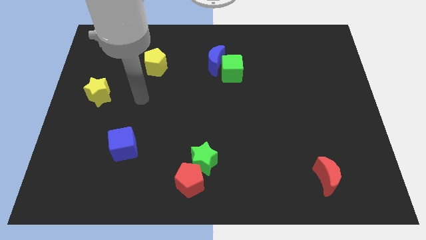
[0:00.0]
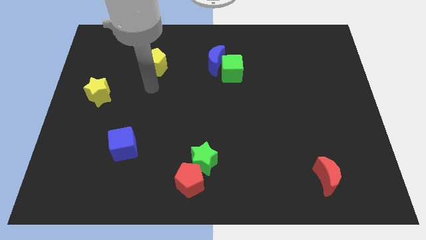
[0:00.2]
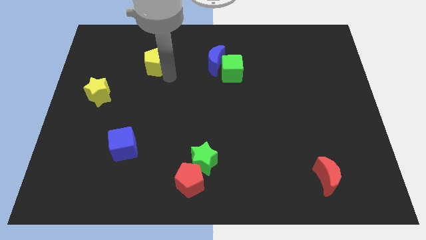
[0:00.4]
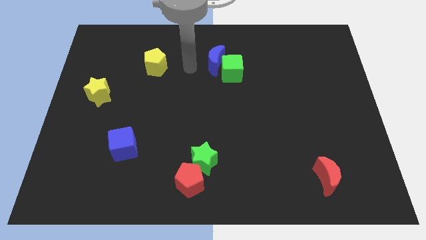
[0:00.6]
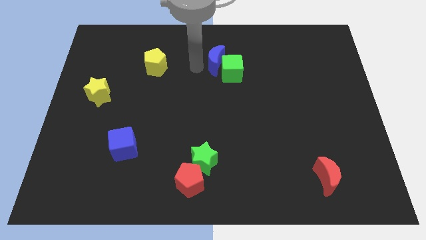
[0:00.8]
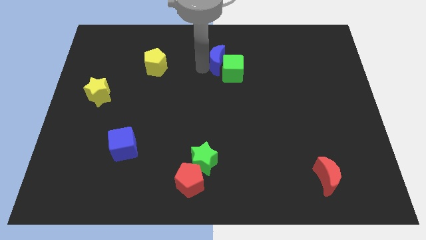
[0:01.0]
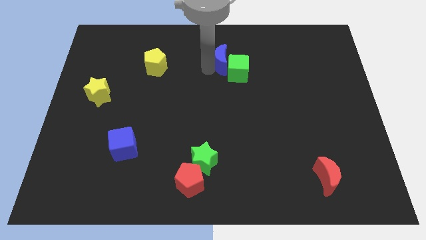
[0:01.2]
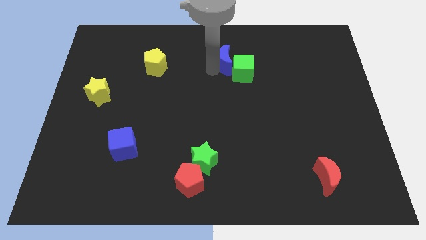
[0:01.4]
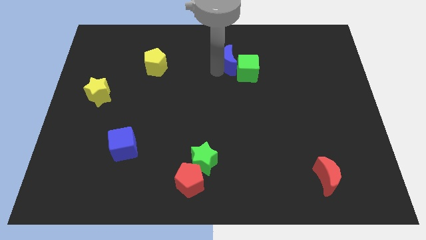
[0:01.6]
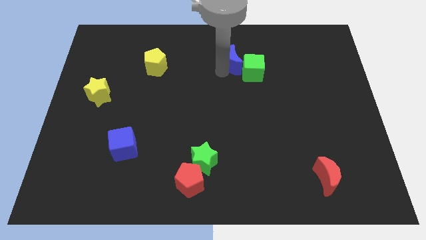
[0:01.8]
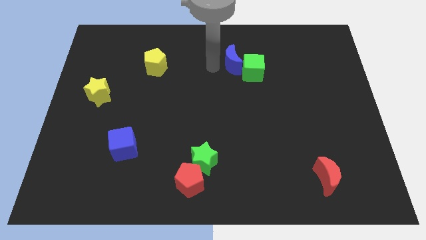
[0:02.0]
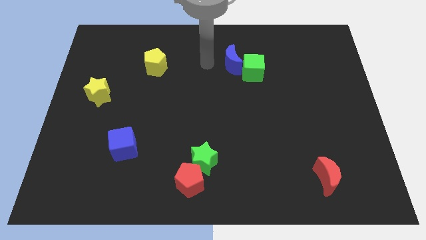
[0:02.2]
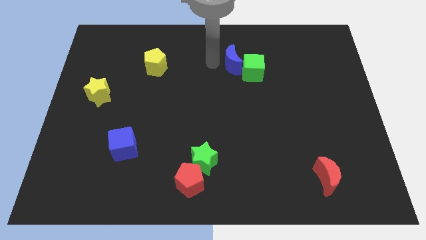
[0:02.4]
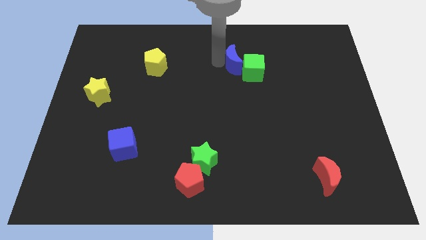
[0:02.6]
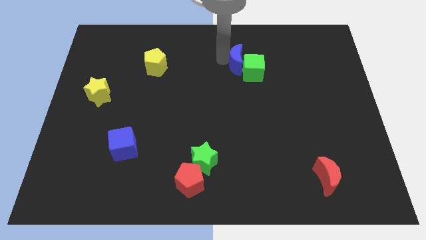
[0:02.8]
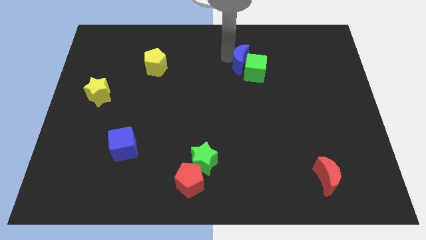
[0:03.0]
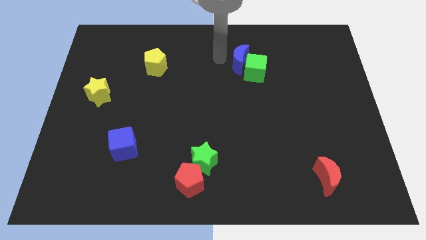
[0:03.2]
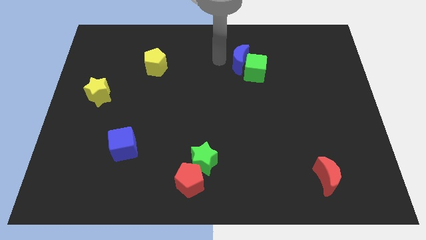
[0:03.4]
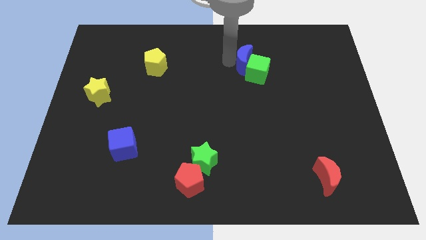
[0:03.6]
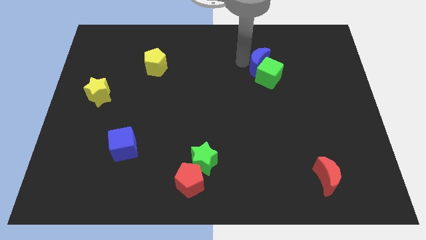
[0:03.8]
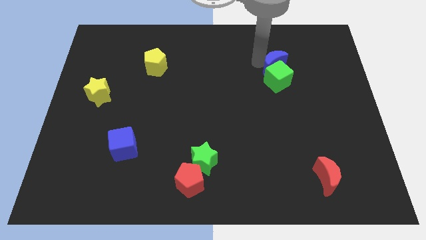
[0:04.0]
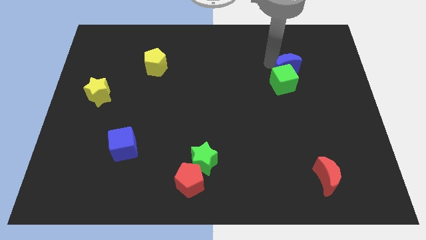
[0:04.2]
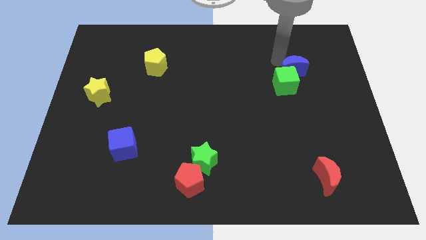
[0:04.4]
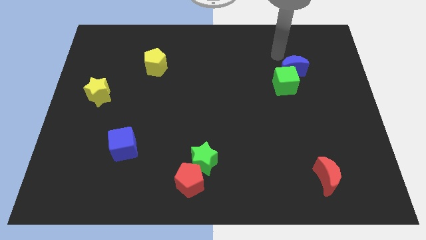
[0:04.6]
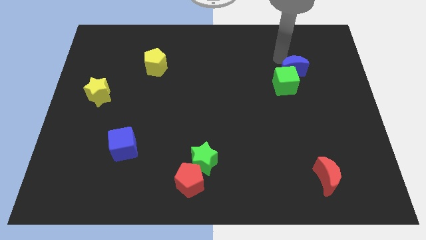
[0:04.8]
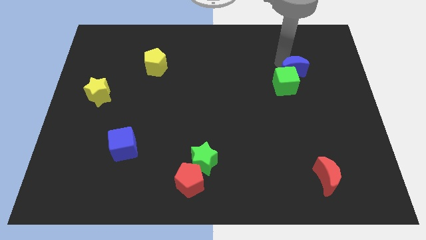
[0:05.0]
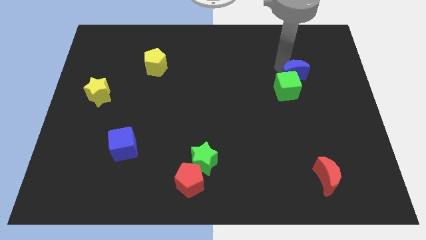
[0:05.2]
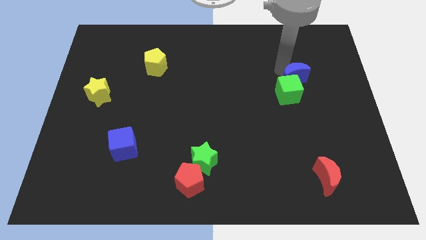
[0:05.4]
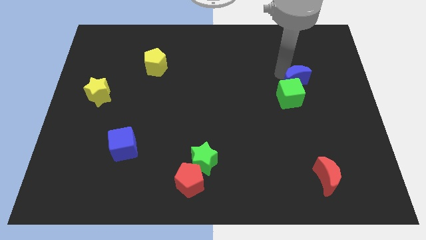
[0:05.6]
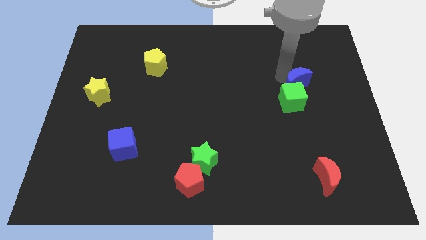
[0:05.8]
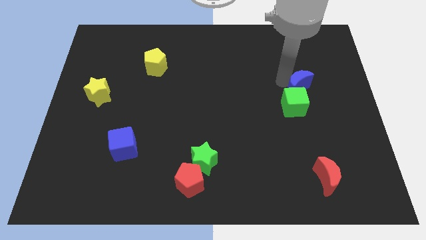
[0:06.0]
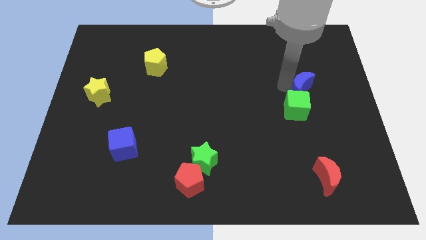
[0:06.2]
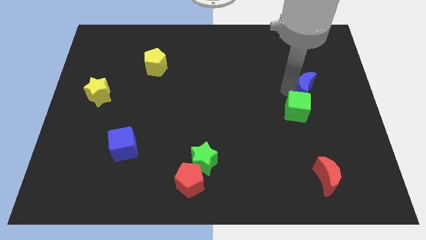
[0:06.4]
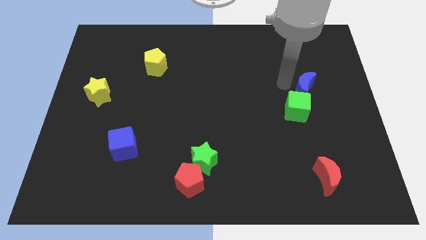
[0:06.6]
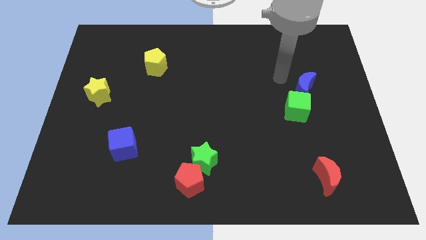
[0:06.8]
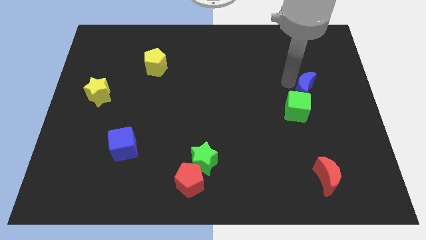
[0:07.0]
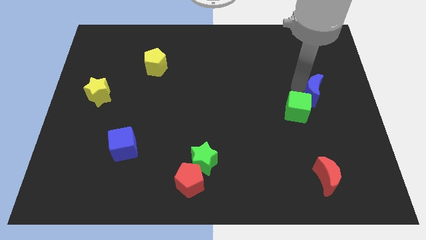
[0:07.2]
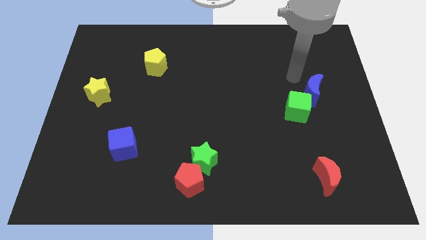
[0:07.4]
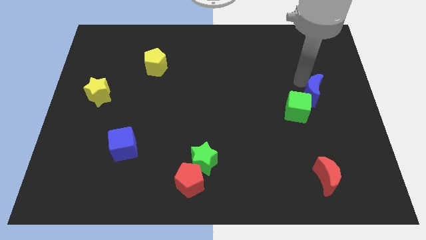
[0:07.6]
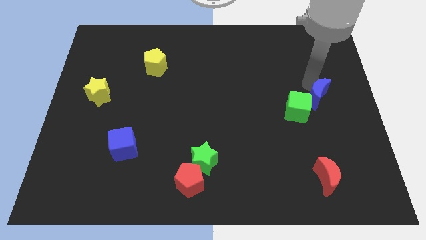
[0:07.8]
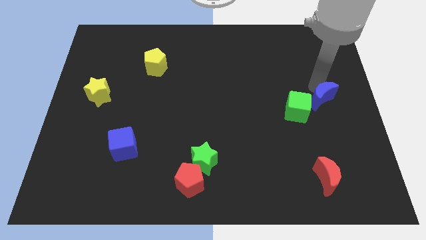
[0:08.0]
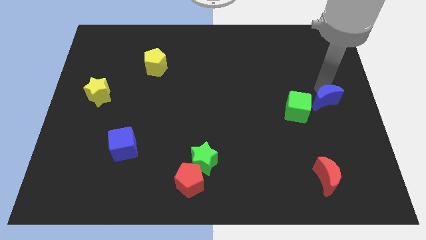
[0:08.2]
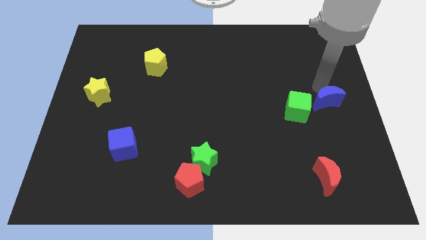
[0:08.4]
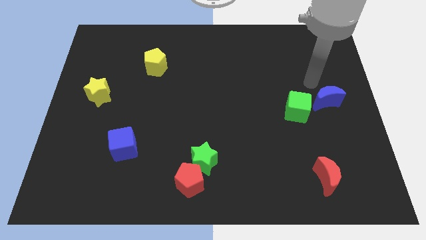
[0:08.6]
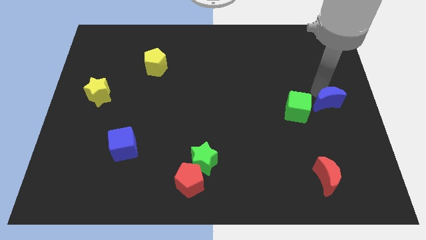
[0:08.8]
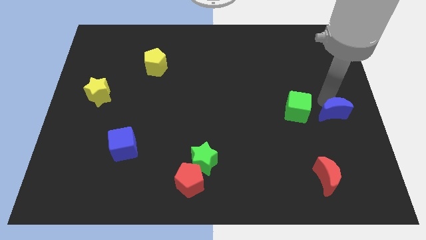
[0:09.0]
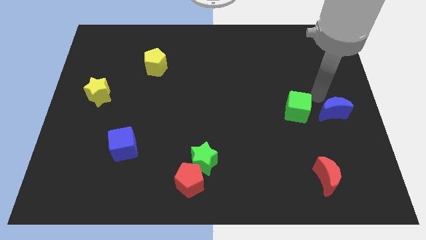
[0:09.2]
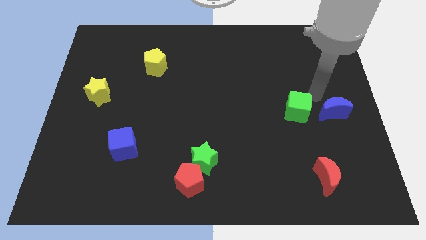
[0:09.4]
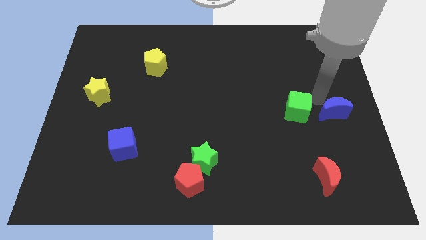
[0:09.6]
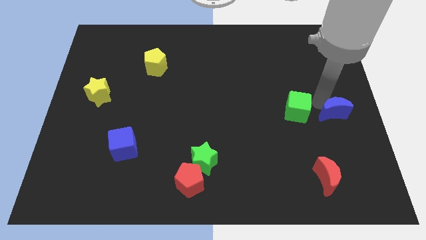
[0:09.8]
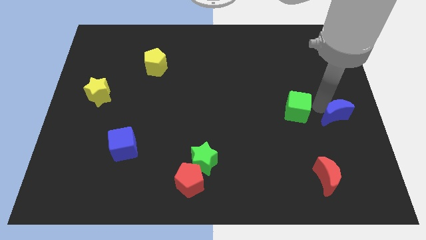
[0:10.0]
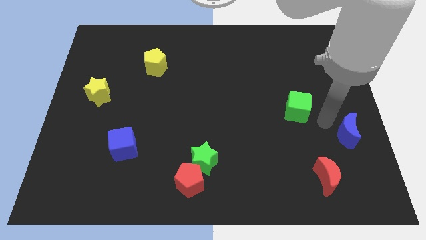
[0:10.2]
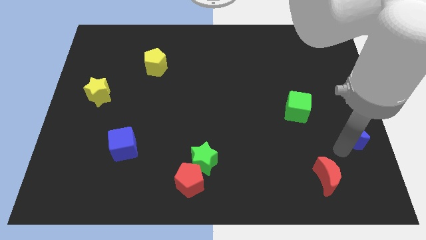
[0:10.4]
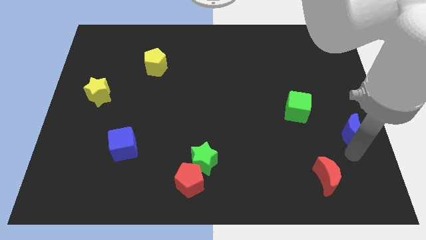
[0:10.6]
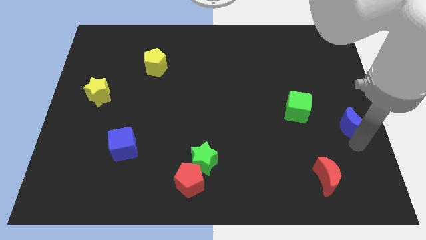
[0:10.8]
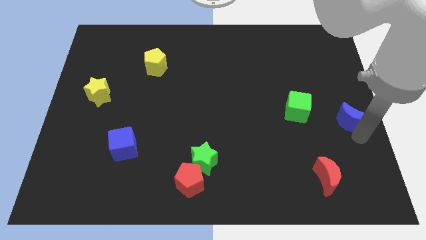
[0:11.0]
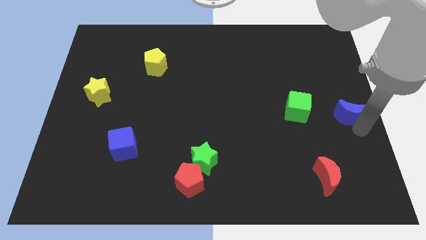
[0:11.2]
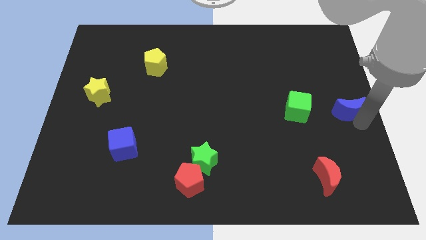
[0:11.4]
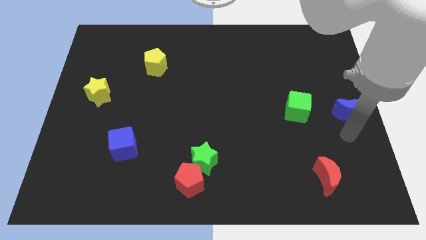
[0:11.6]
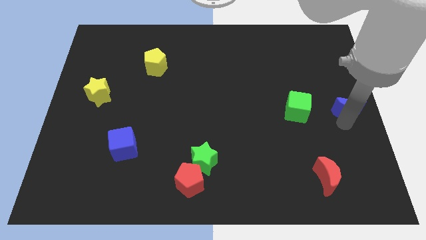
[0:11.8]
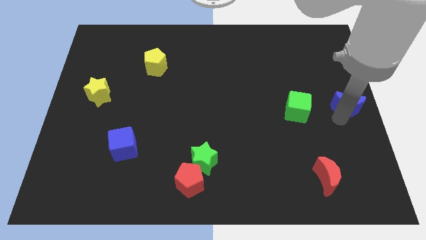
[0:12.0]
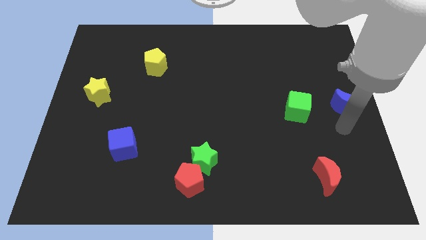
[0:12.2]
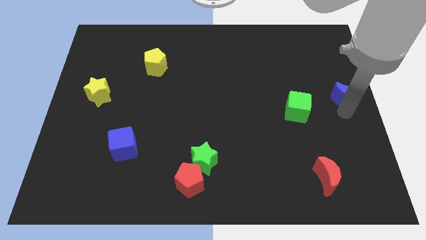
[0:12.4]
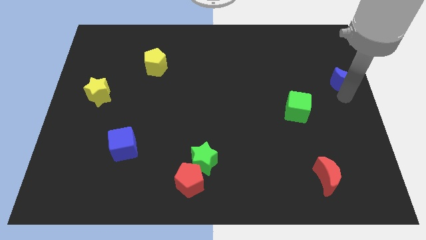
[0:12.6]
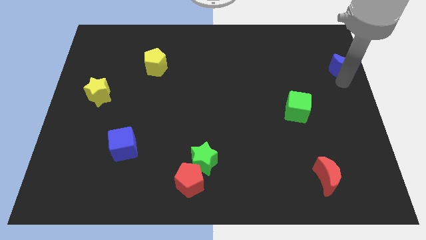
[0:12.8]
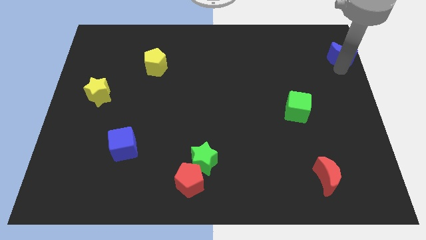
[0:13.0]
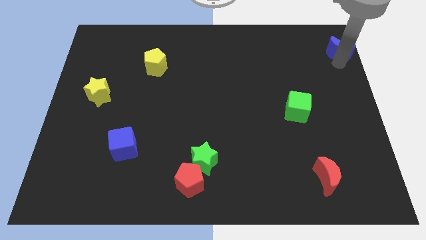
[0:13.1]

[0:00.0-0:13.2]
move the blue moon to the top right corner

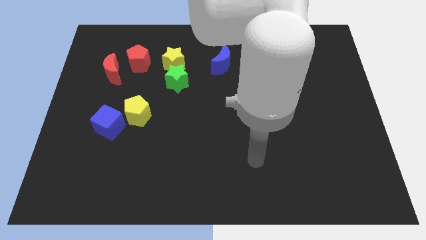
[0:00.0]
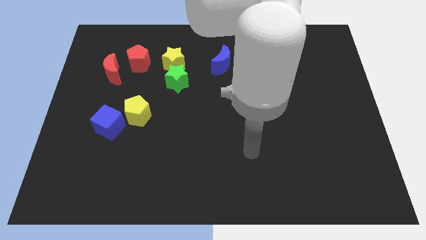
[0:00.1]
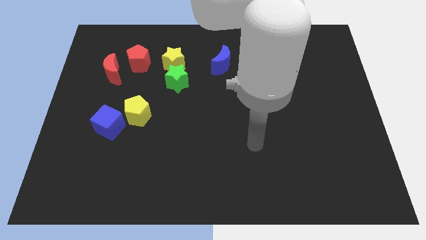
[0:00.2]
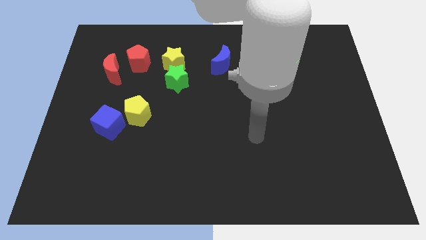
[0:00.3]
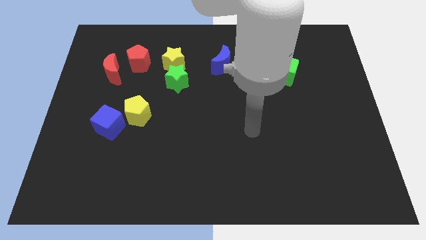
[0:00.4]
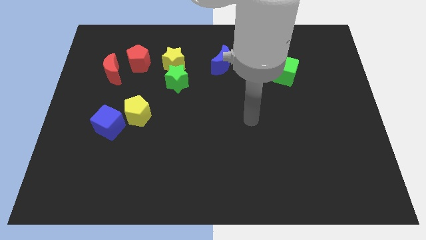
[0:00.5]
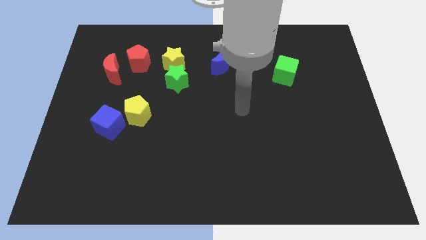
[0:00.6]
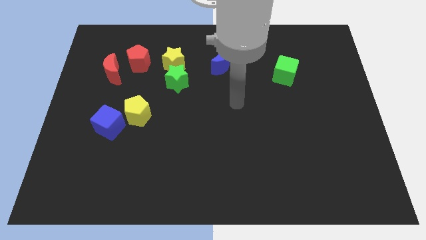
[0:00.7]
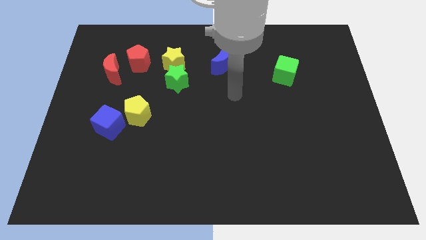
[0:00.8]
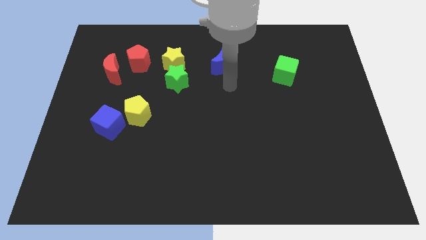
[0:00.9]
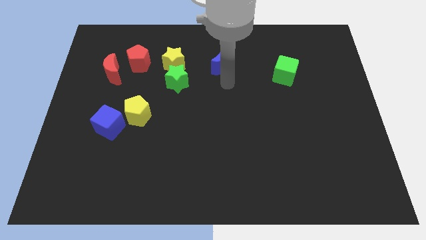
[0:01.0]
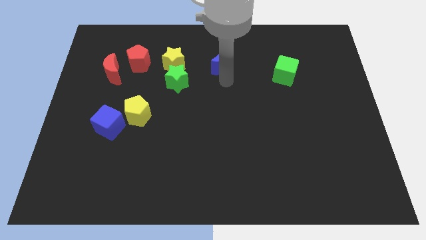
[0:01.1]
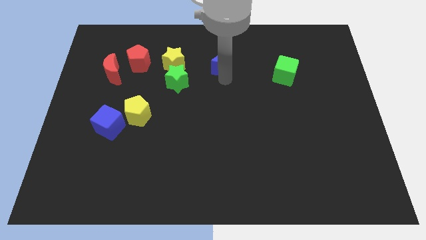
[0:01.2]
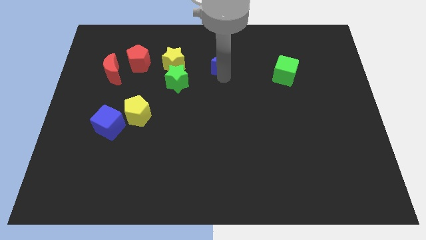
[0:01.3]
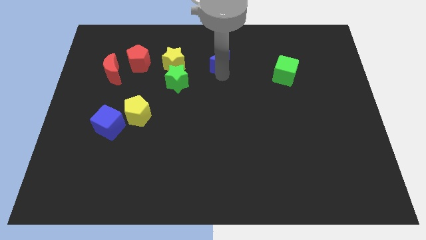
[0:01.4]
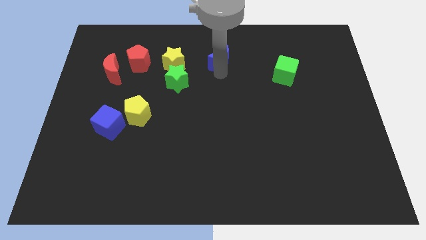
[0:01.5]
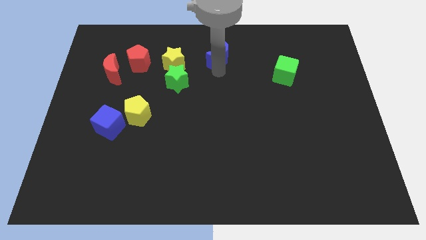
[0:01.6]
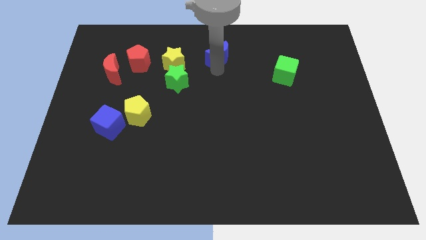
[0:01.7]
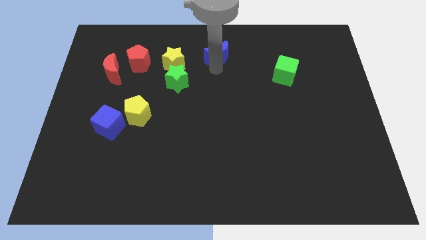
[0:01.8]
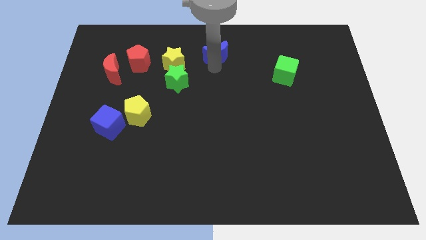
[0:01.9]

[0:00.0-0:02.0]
slide the blue moon to the top side
